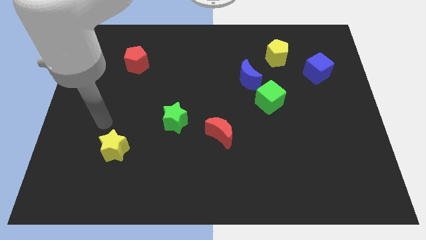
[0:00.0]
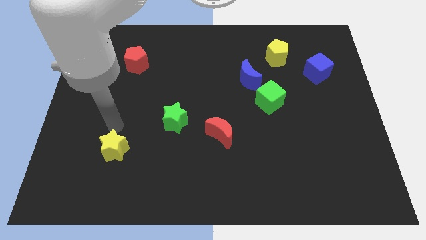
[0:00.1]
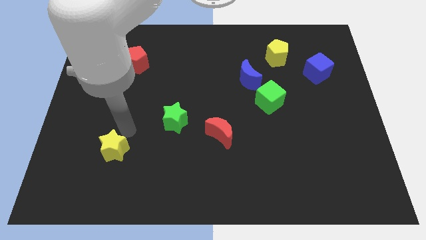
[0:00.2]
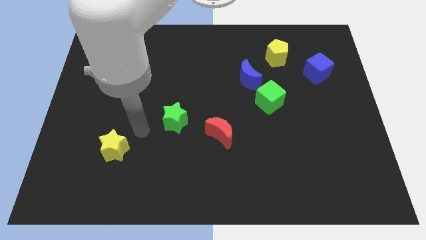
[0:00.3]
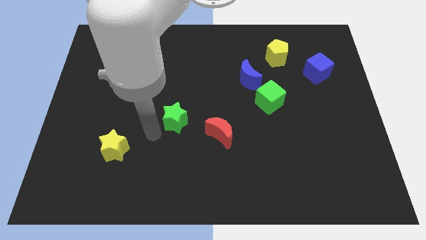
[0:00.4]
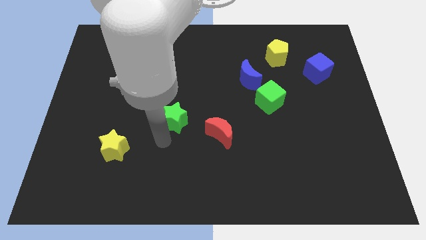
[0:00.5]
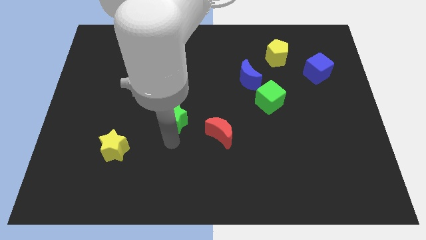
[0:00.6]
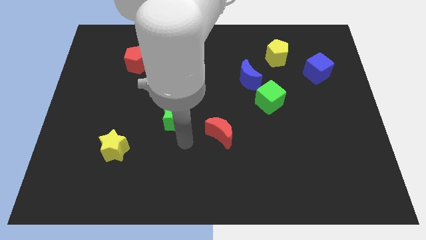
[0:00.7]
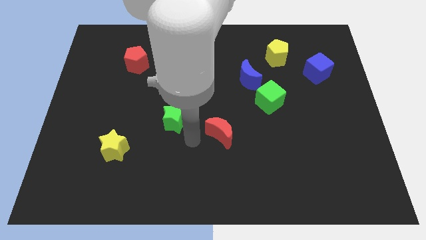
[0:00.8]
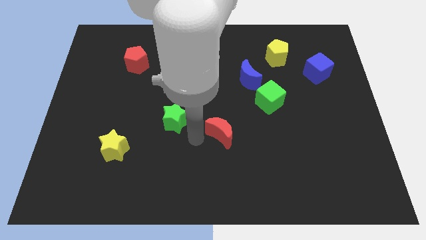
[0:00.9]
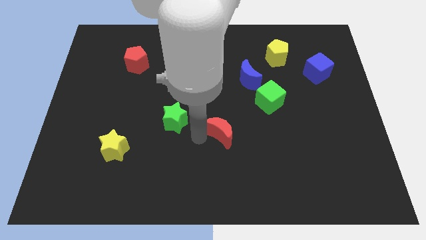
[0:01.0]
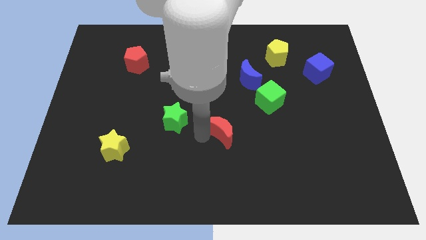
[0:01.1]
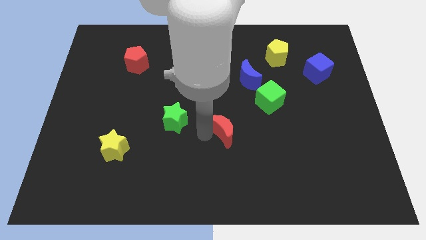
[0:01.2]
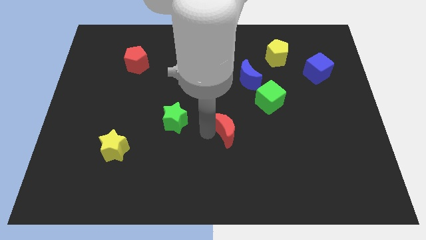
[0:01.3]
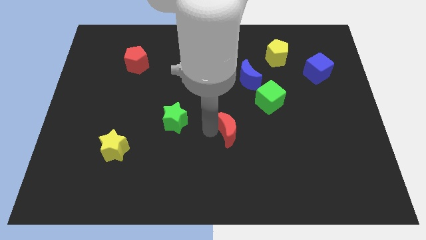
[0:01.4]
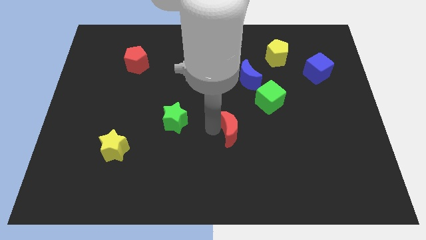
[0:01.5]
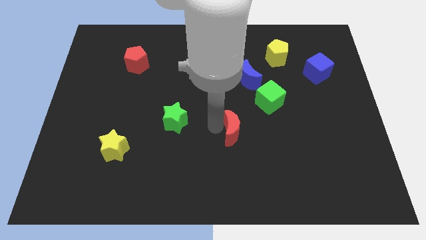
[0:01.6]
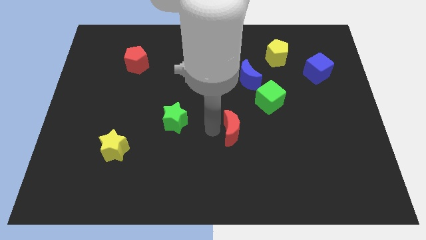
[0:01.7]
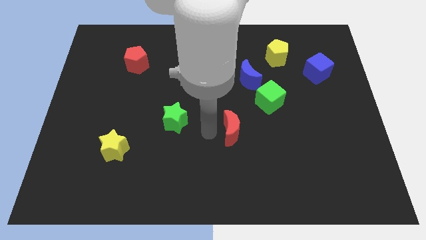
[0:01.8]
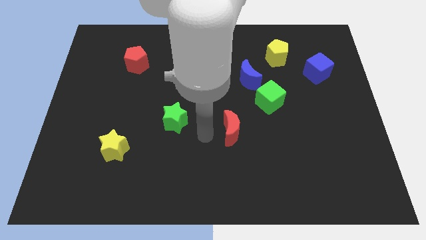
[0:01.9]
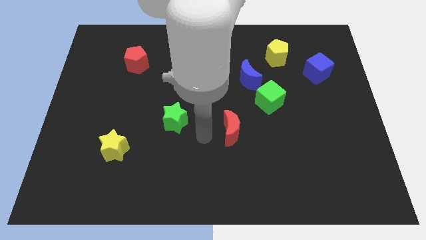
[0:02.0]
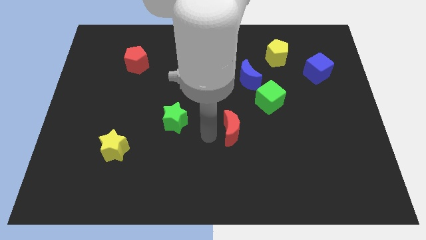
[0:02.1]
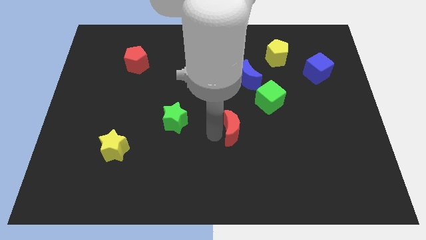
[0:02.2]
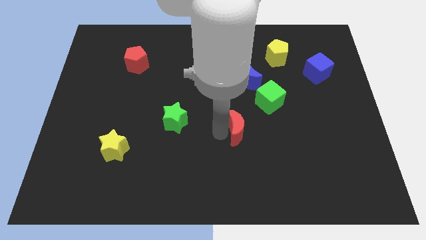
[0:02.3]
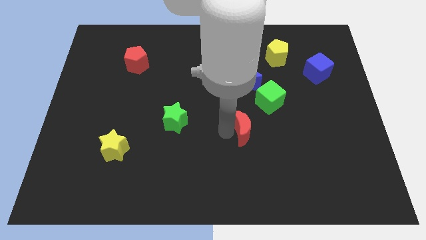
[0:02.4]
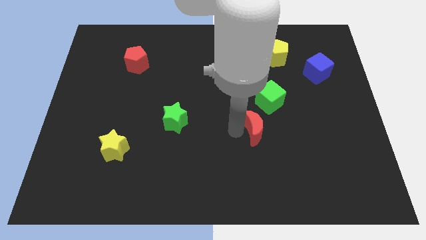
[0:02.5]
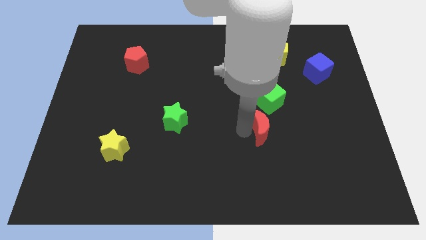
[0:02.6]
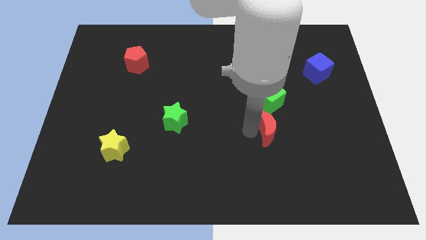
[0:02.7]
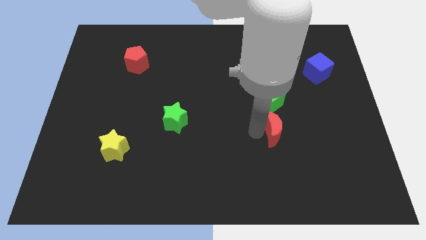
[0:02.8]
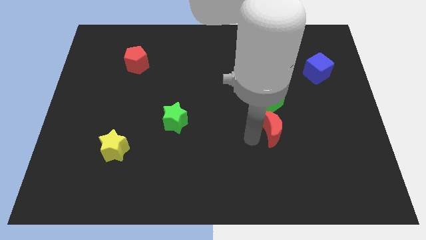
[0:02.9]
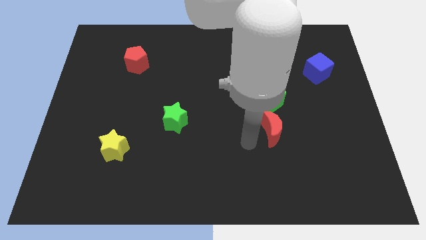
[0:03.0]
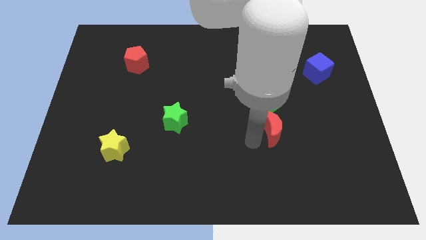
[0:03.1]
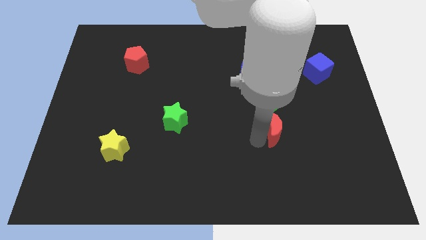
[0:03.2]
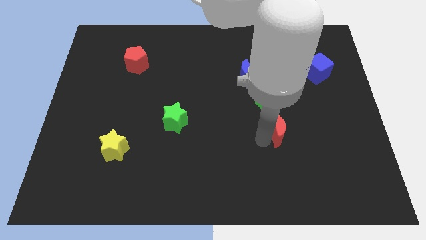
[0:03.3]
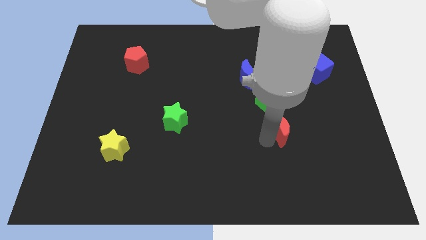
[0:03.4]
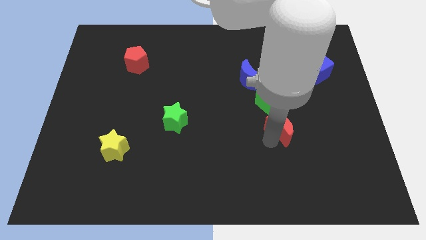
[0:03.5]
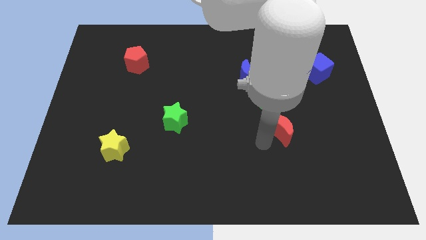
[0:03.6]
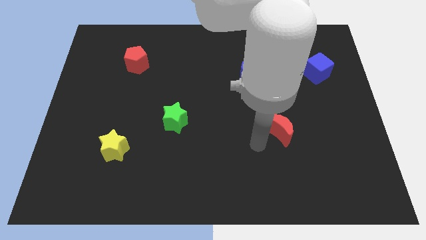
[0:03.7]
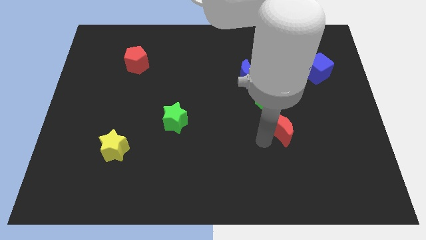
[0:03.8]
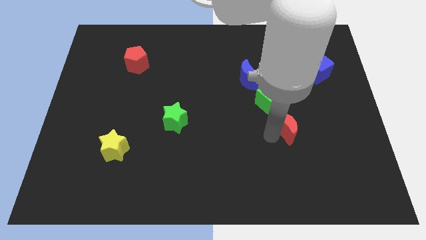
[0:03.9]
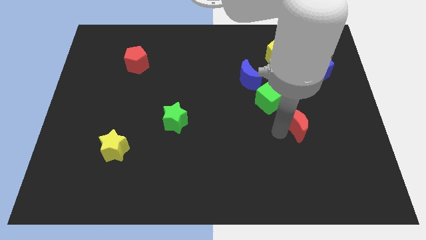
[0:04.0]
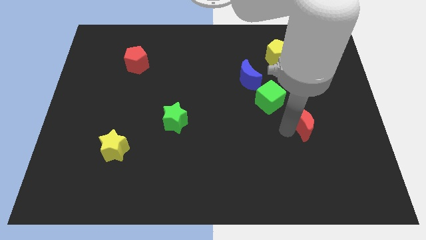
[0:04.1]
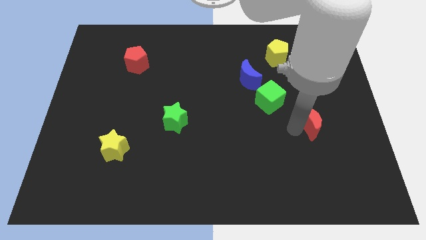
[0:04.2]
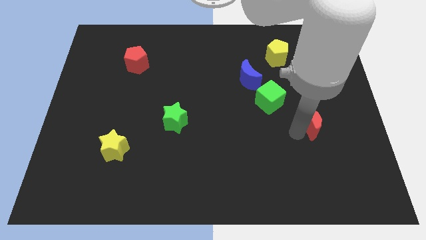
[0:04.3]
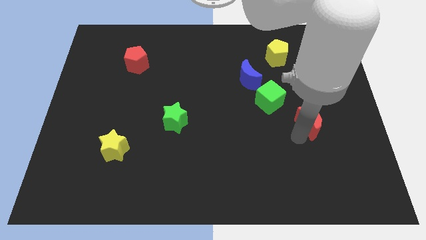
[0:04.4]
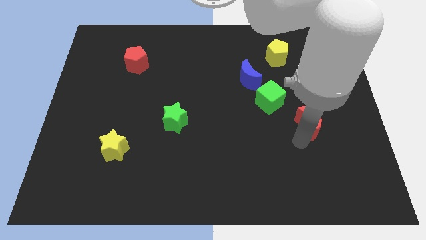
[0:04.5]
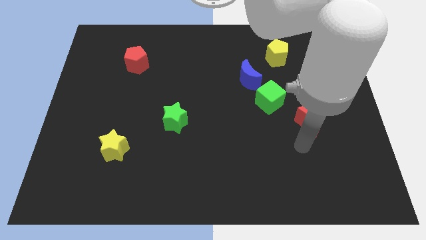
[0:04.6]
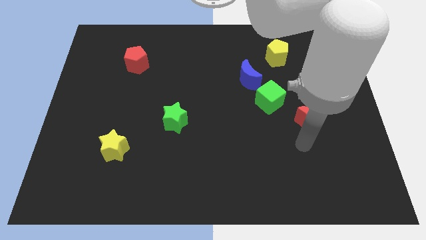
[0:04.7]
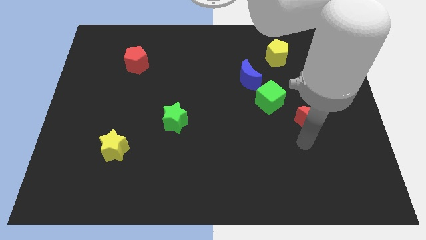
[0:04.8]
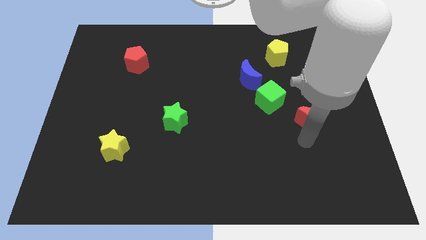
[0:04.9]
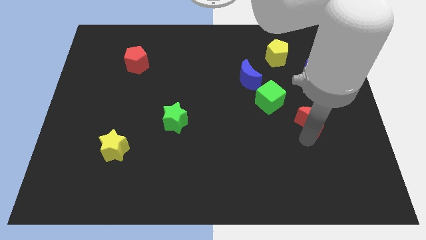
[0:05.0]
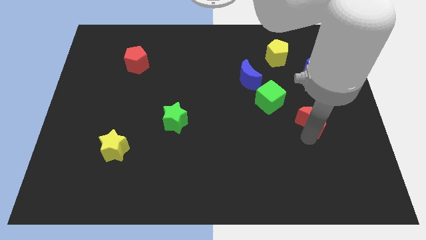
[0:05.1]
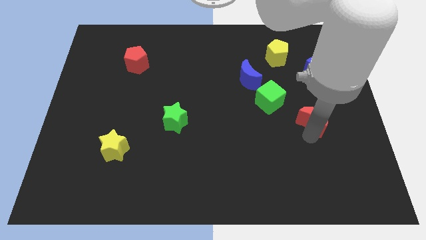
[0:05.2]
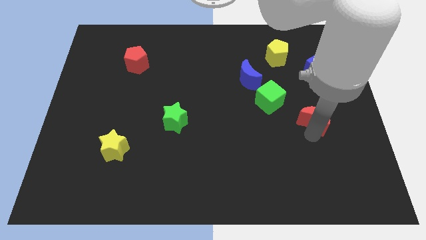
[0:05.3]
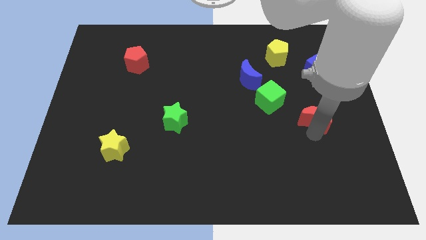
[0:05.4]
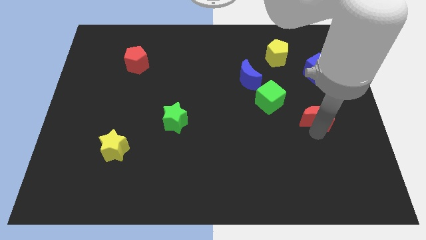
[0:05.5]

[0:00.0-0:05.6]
slide the red moon to the bottom side of the blue cube

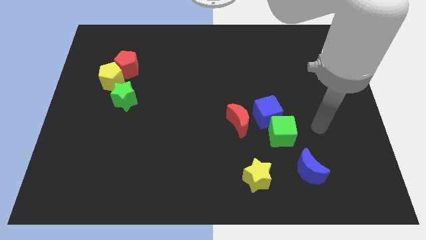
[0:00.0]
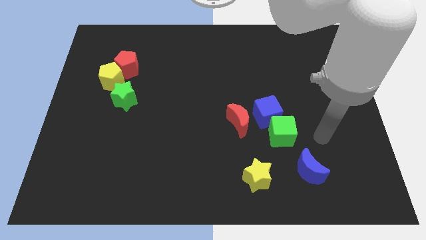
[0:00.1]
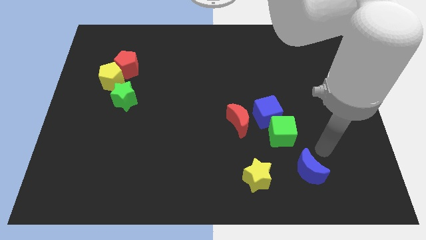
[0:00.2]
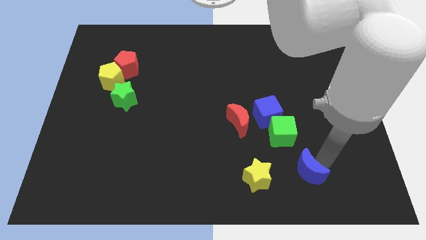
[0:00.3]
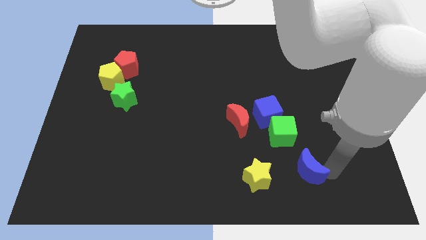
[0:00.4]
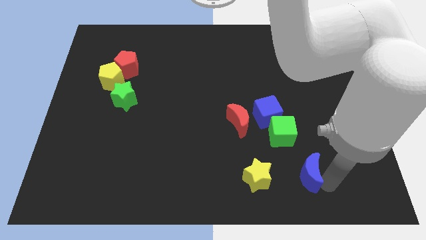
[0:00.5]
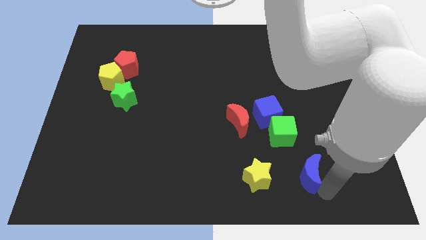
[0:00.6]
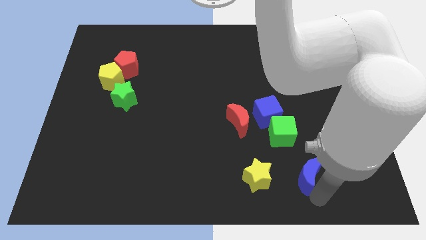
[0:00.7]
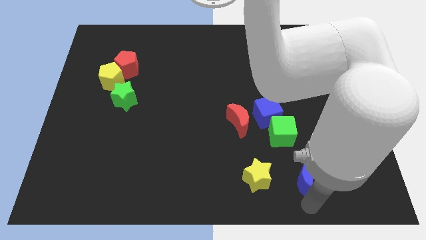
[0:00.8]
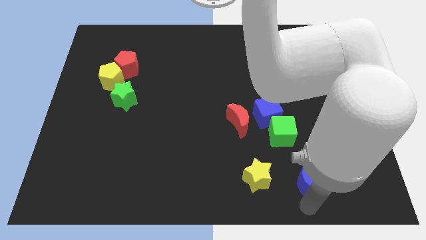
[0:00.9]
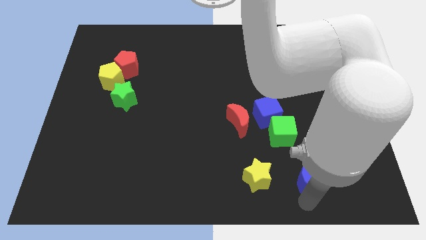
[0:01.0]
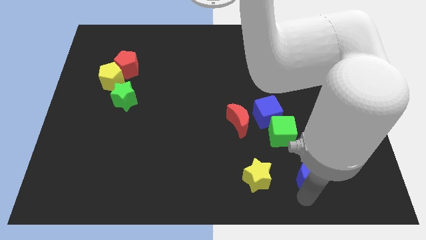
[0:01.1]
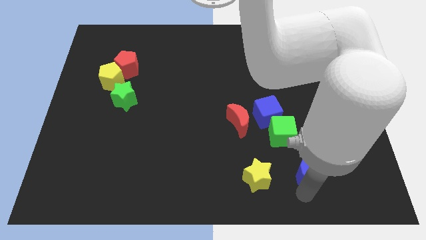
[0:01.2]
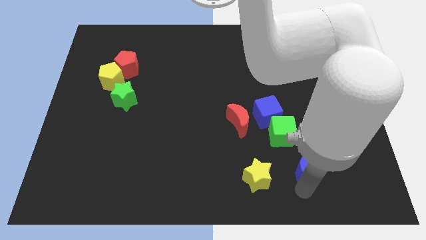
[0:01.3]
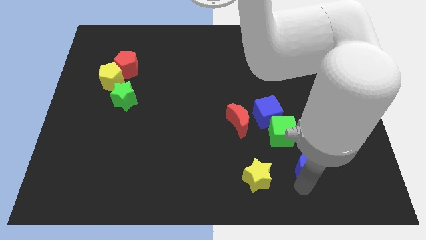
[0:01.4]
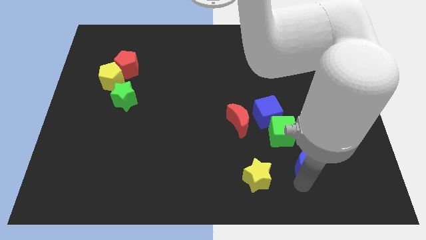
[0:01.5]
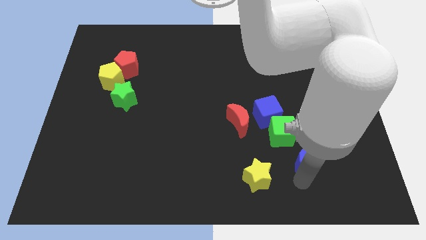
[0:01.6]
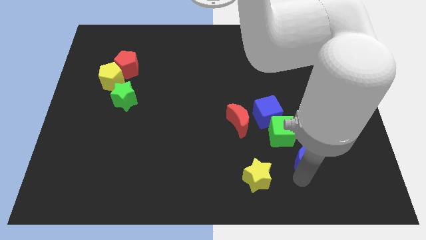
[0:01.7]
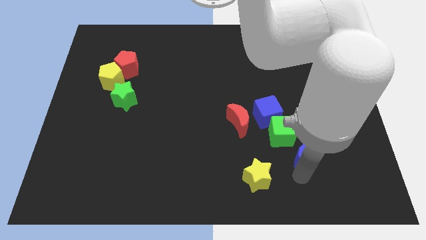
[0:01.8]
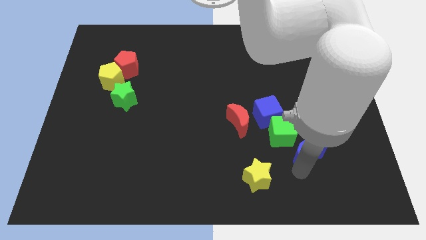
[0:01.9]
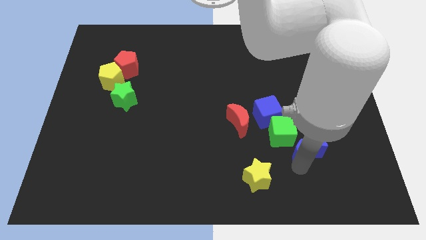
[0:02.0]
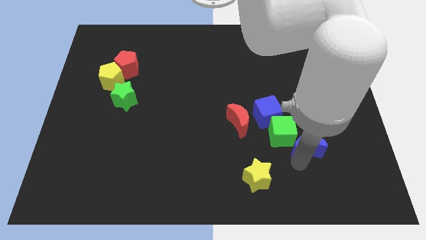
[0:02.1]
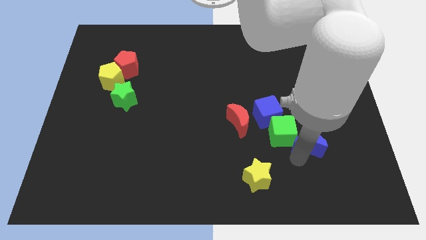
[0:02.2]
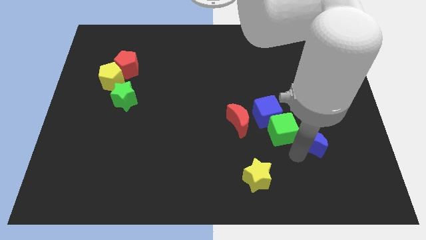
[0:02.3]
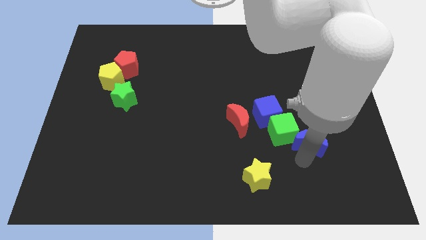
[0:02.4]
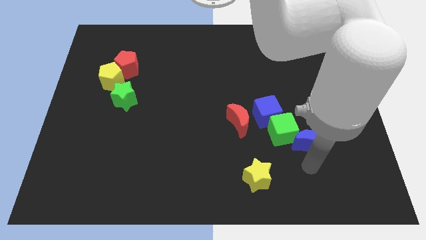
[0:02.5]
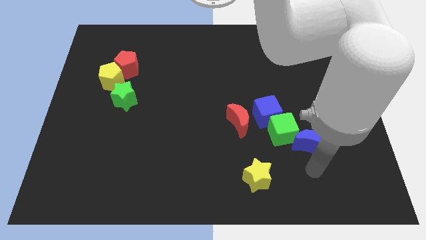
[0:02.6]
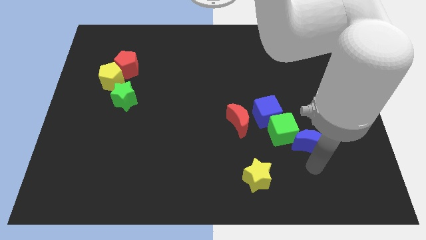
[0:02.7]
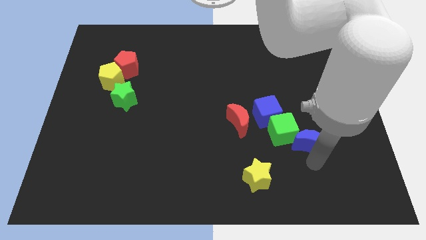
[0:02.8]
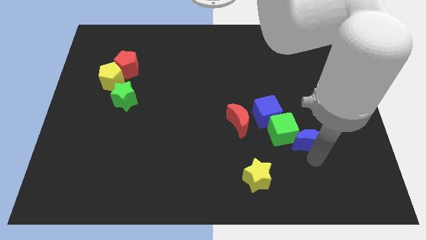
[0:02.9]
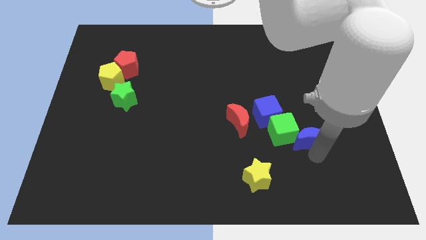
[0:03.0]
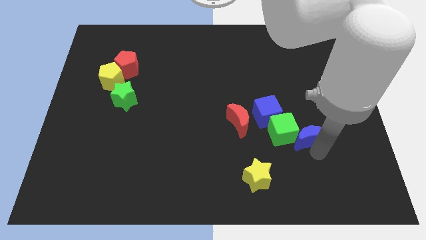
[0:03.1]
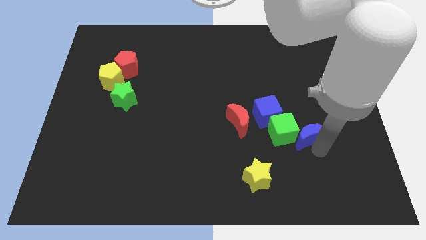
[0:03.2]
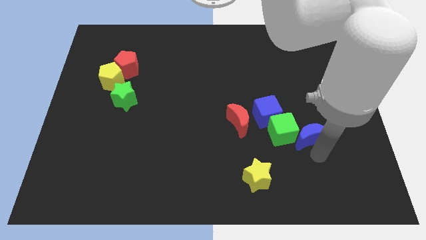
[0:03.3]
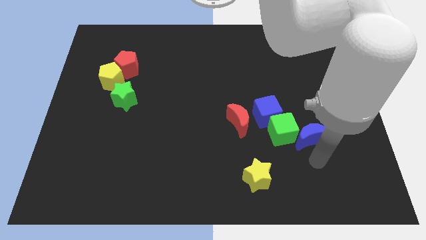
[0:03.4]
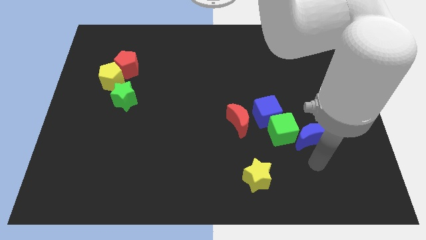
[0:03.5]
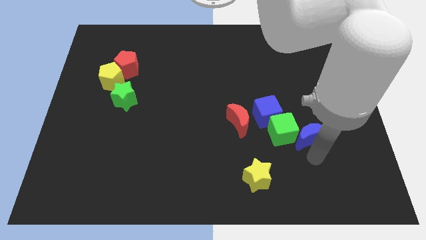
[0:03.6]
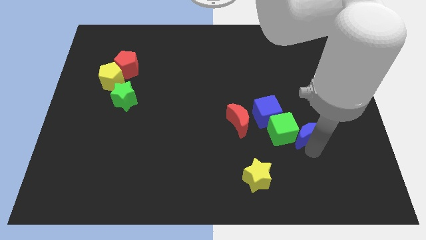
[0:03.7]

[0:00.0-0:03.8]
put the blue moon to the top right of the green cube
